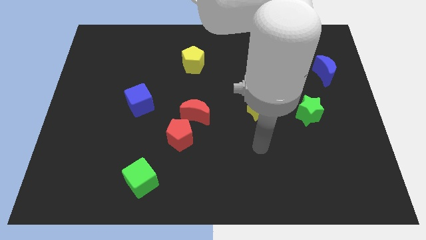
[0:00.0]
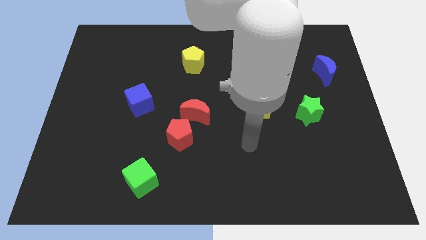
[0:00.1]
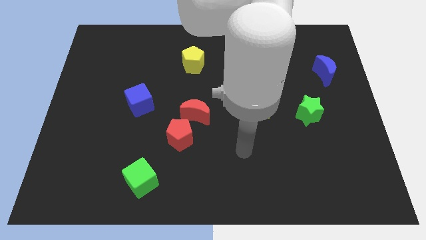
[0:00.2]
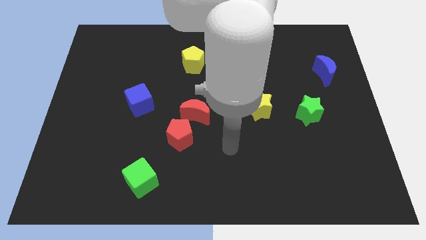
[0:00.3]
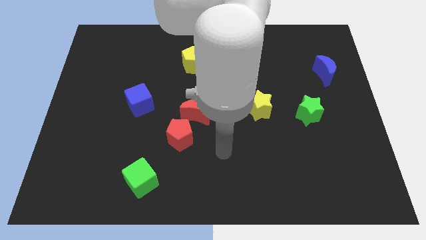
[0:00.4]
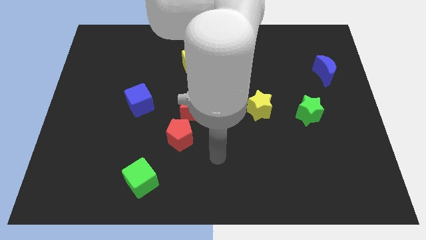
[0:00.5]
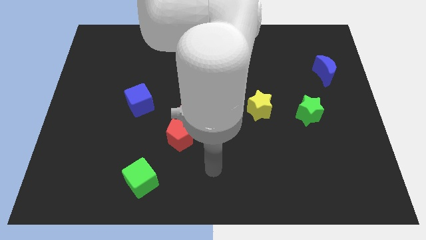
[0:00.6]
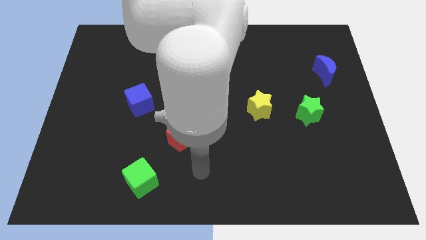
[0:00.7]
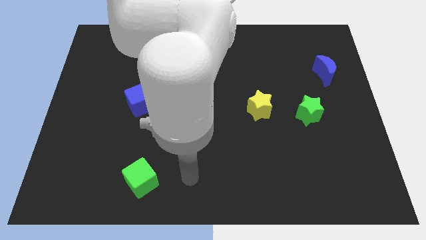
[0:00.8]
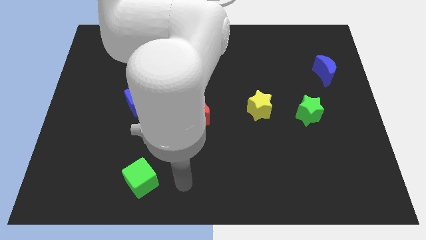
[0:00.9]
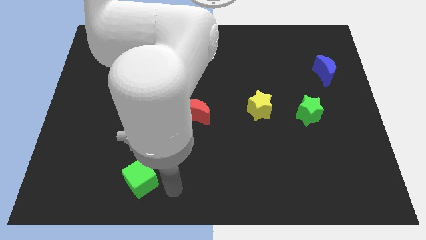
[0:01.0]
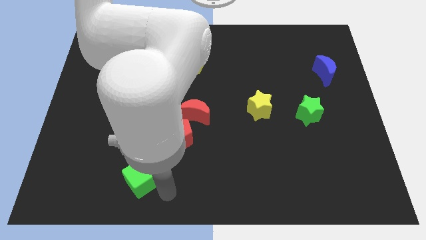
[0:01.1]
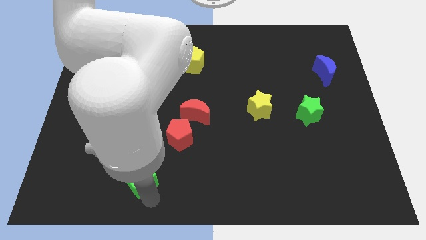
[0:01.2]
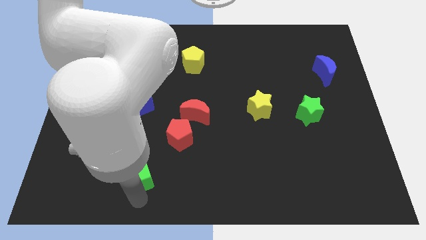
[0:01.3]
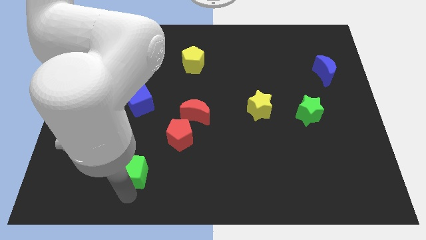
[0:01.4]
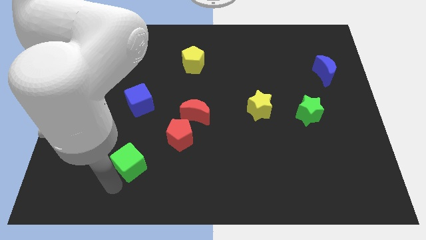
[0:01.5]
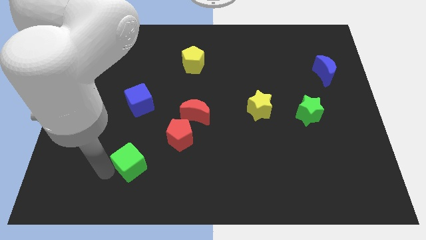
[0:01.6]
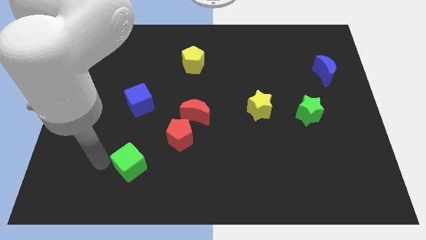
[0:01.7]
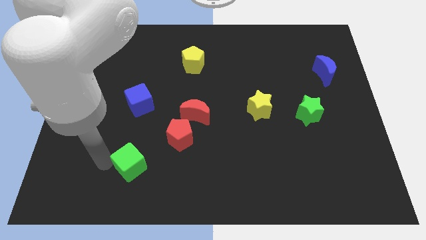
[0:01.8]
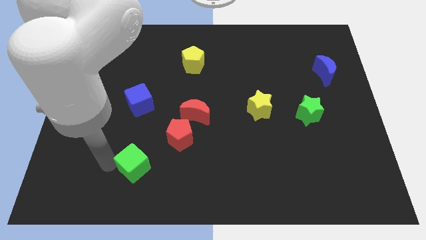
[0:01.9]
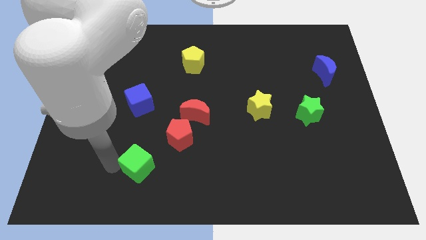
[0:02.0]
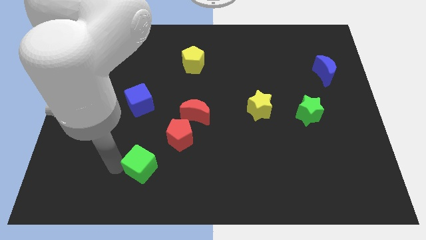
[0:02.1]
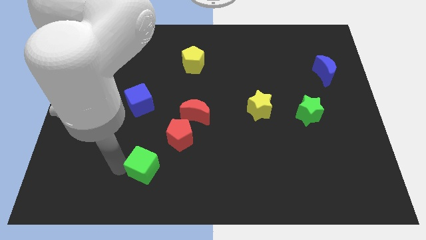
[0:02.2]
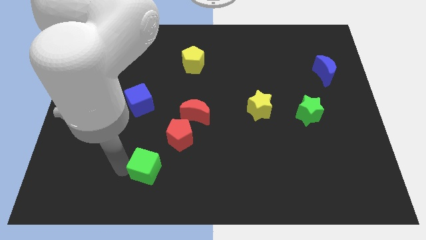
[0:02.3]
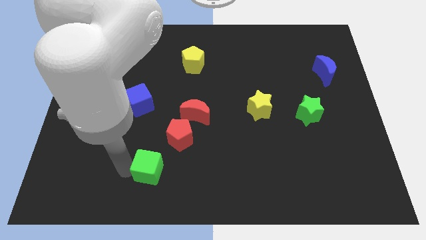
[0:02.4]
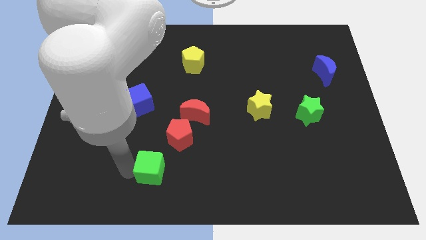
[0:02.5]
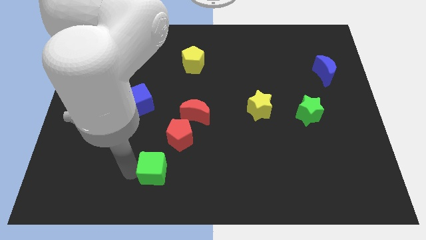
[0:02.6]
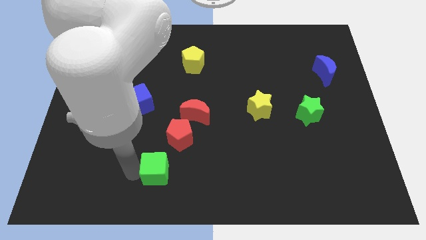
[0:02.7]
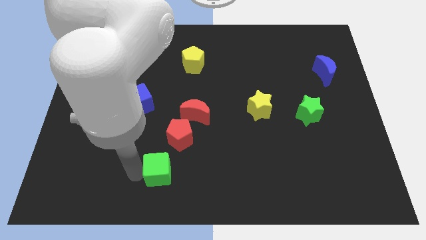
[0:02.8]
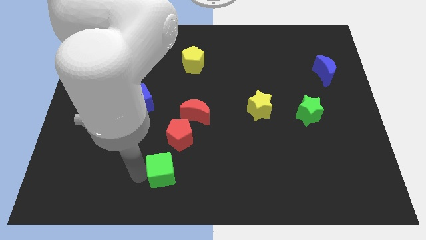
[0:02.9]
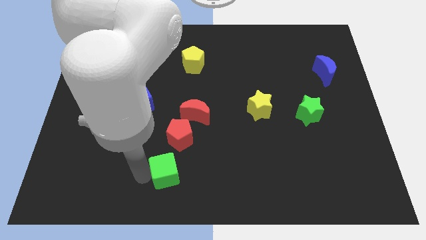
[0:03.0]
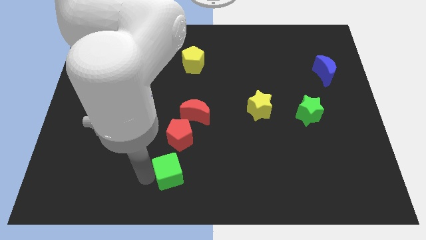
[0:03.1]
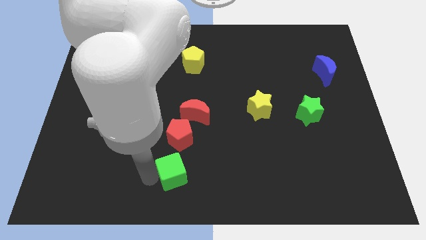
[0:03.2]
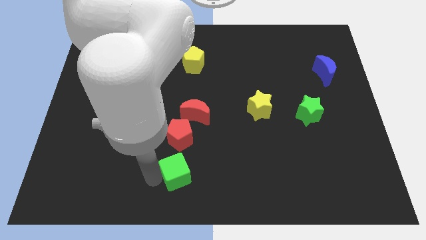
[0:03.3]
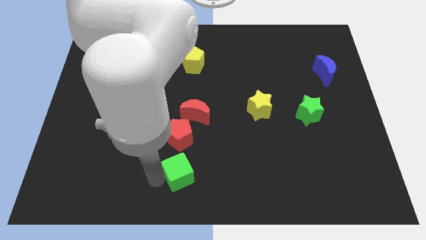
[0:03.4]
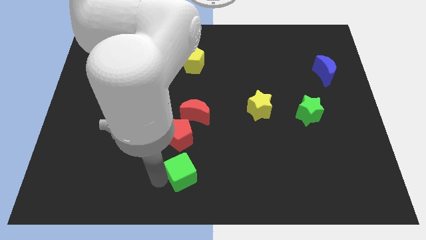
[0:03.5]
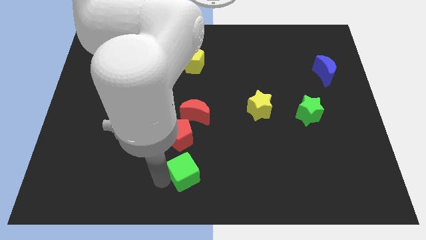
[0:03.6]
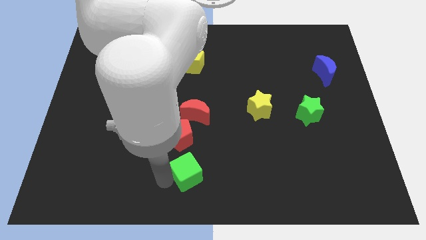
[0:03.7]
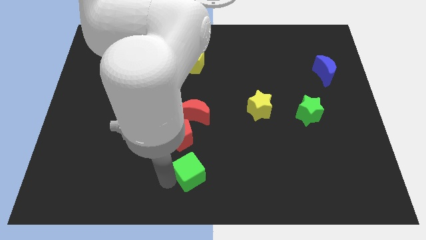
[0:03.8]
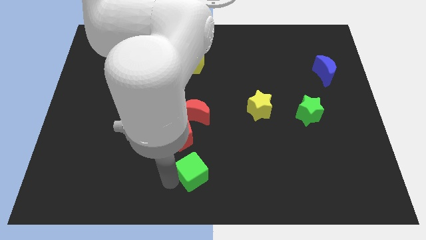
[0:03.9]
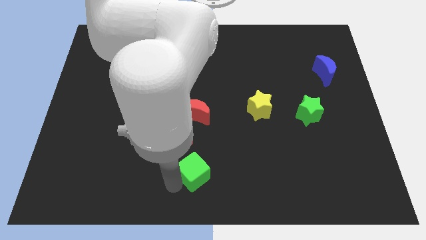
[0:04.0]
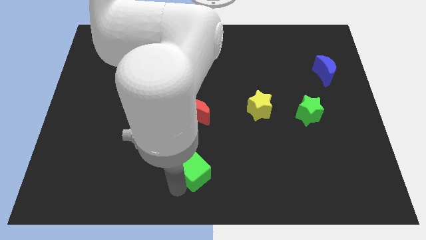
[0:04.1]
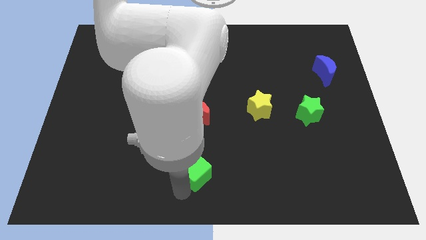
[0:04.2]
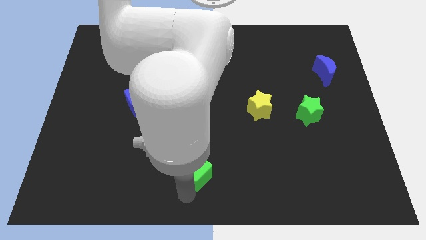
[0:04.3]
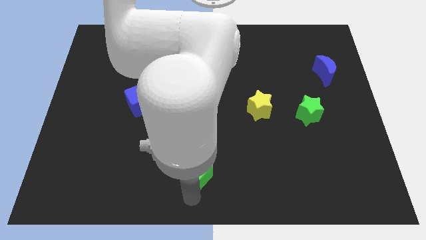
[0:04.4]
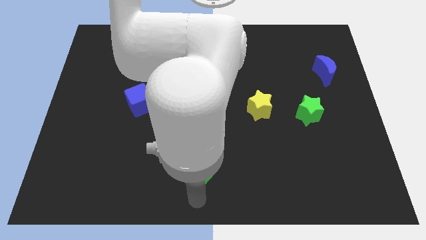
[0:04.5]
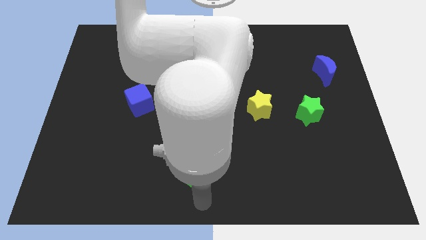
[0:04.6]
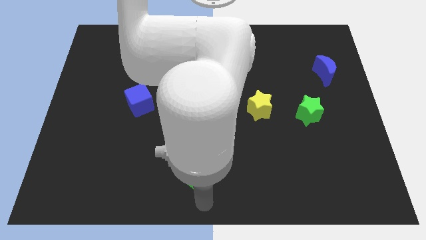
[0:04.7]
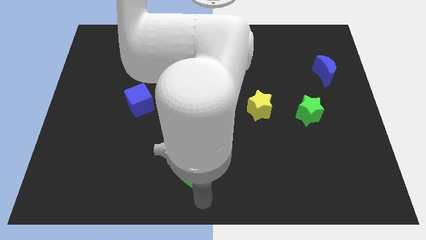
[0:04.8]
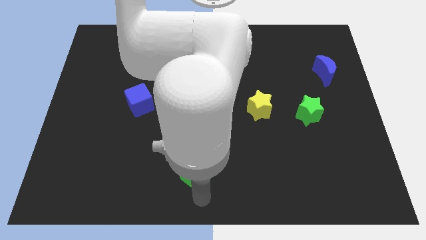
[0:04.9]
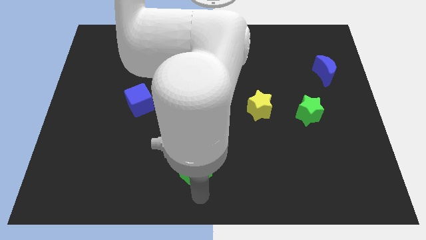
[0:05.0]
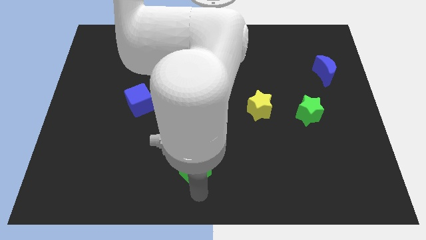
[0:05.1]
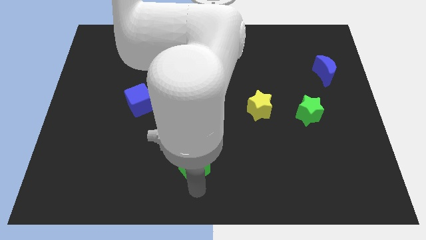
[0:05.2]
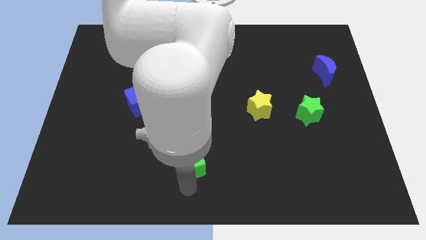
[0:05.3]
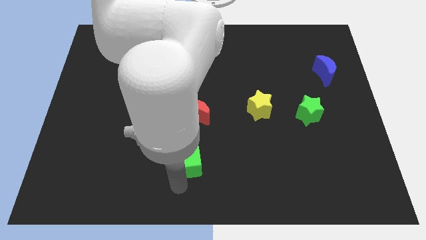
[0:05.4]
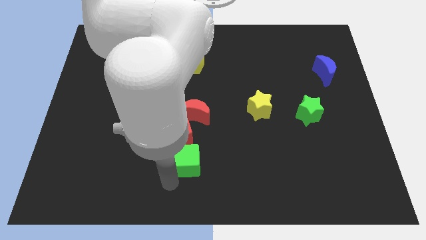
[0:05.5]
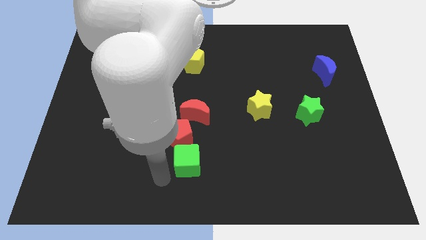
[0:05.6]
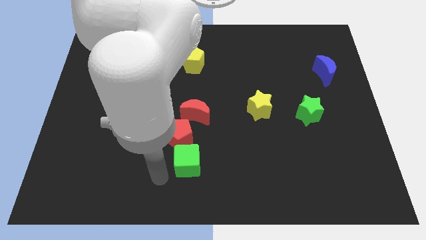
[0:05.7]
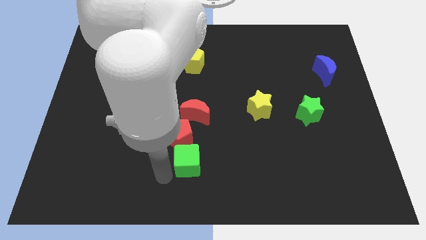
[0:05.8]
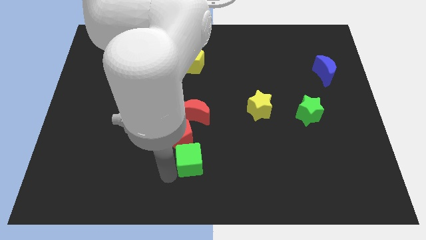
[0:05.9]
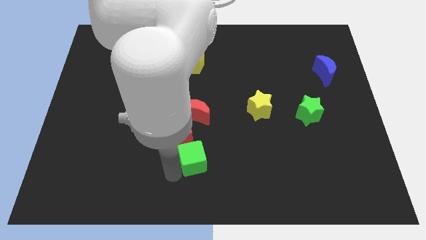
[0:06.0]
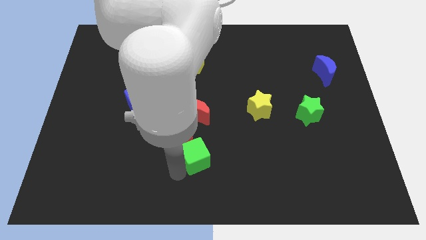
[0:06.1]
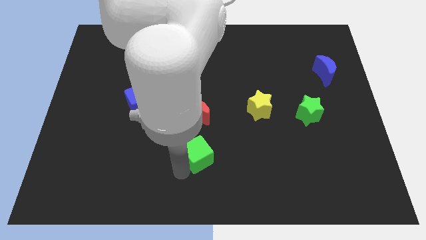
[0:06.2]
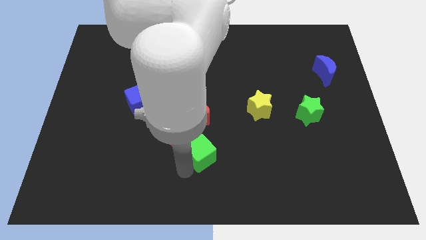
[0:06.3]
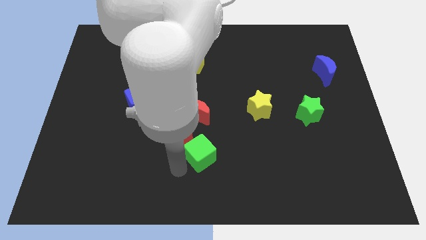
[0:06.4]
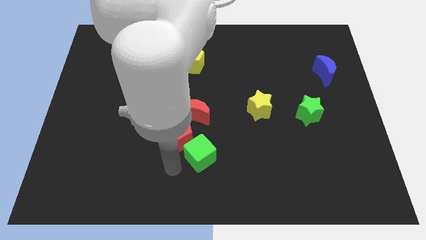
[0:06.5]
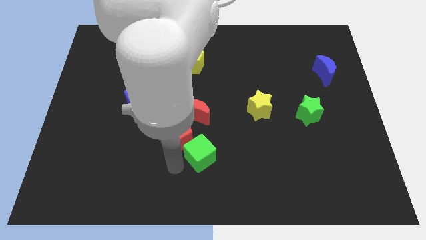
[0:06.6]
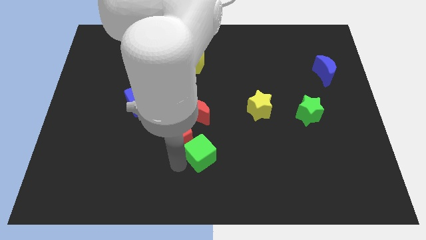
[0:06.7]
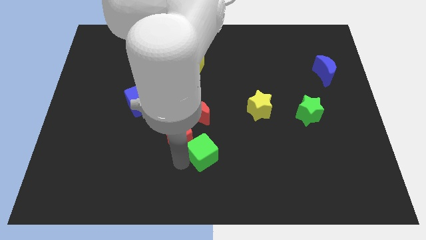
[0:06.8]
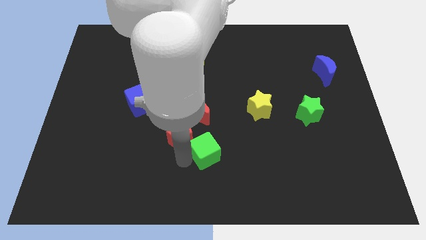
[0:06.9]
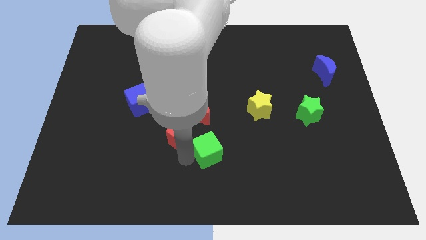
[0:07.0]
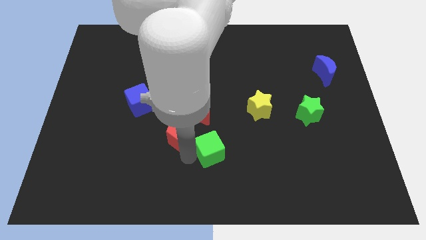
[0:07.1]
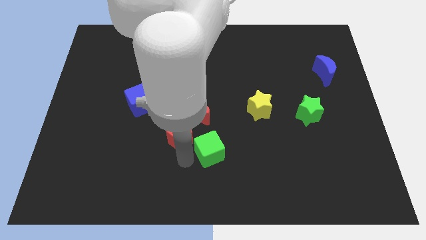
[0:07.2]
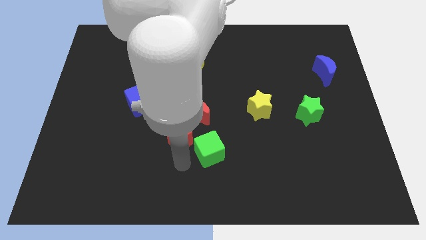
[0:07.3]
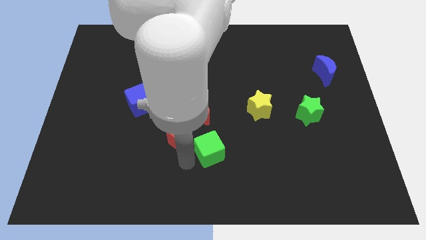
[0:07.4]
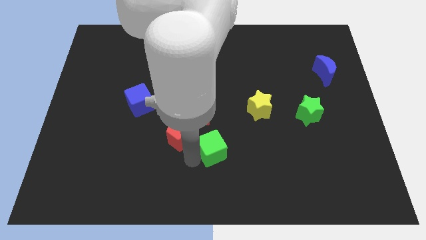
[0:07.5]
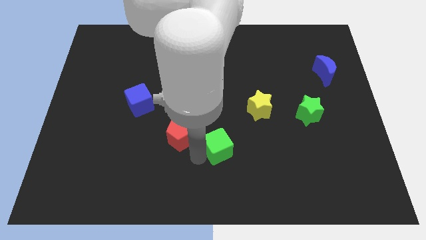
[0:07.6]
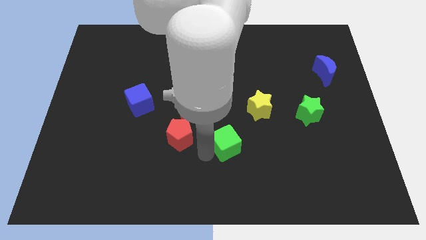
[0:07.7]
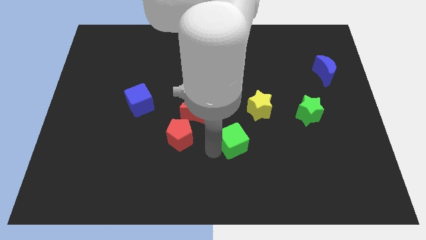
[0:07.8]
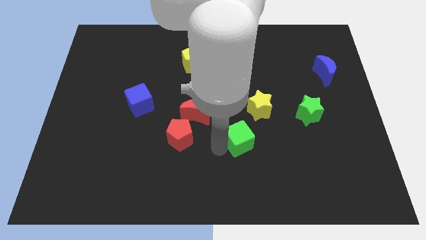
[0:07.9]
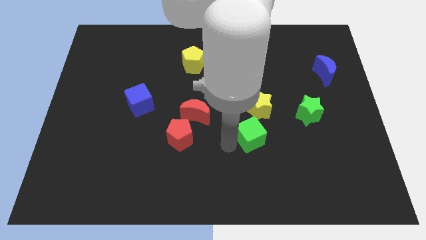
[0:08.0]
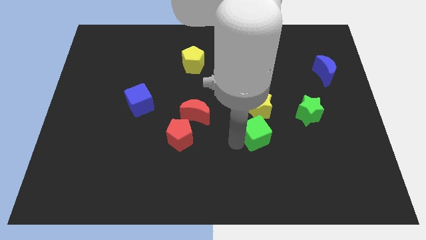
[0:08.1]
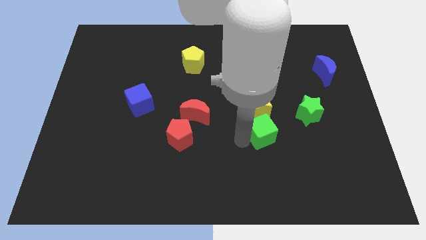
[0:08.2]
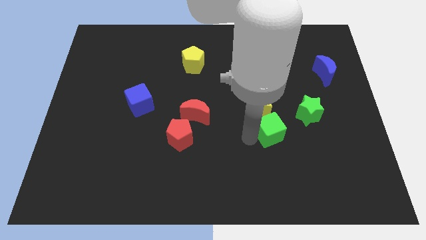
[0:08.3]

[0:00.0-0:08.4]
push the green cube to the bottom right of the yellow star
